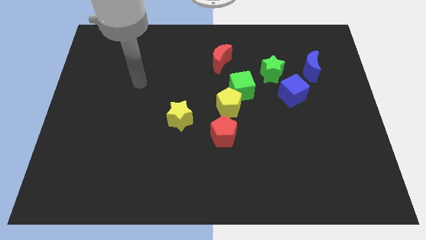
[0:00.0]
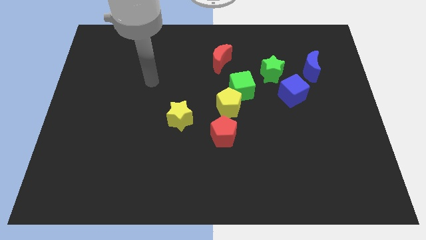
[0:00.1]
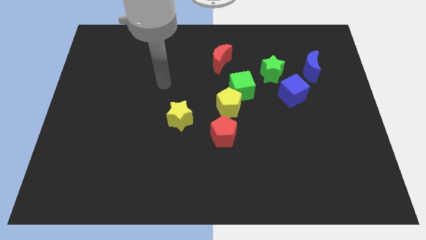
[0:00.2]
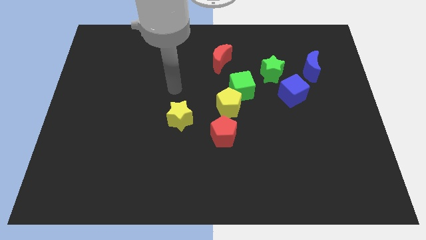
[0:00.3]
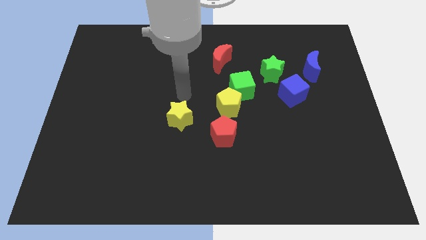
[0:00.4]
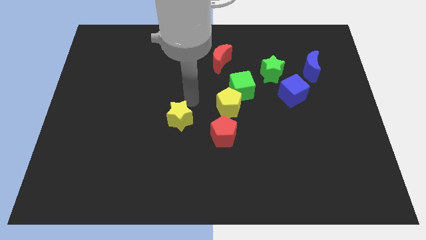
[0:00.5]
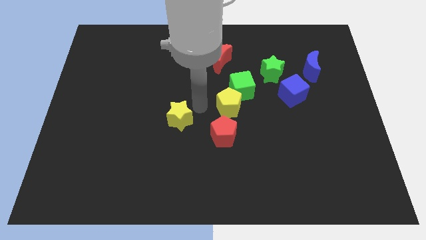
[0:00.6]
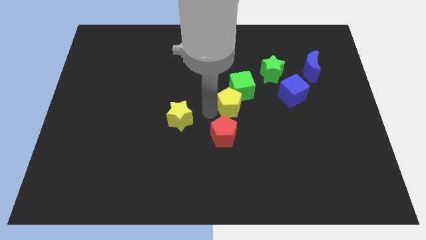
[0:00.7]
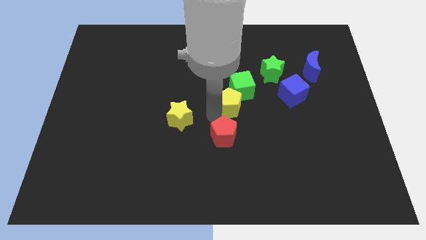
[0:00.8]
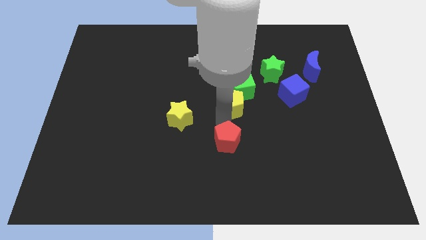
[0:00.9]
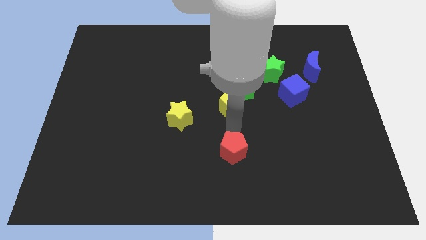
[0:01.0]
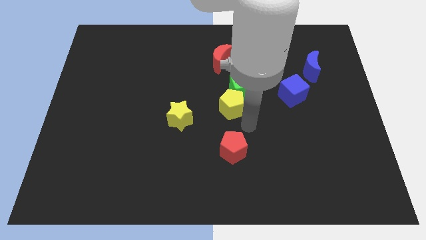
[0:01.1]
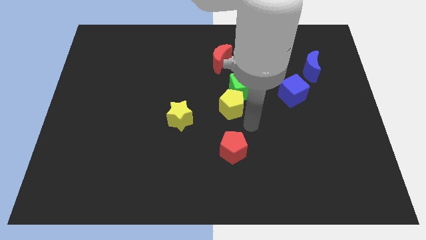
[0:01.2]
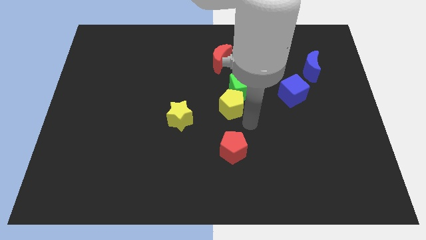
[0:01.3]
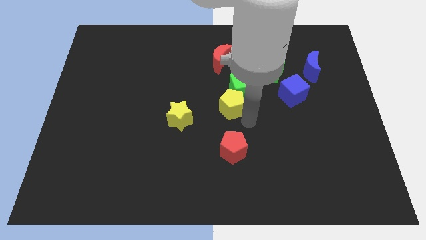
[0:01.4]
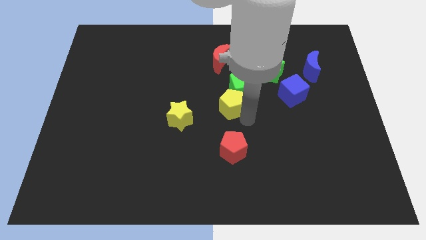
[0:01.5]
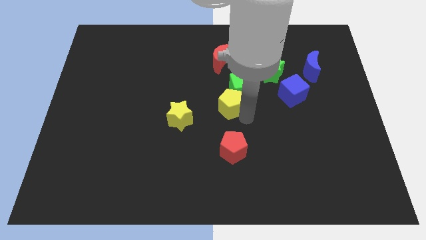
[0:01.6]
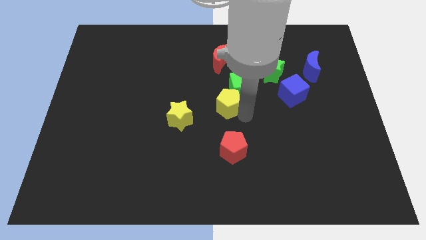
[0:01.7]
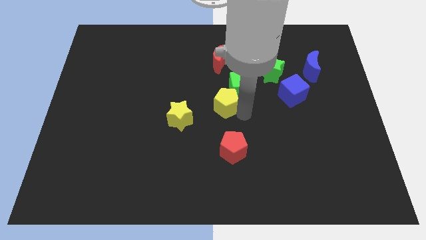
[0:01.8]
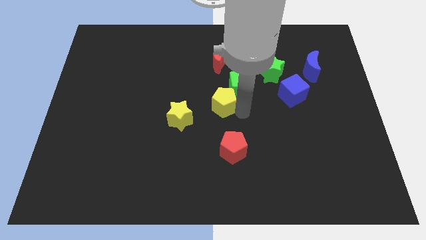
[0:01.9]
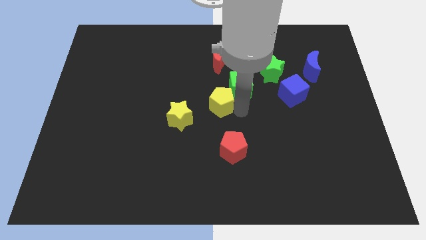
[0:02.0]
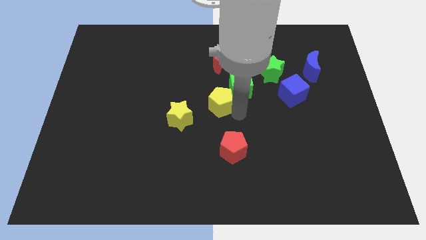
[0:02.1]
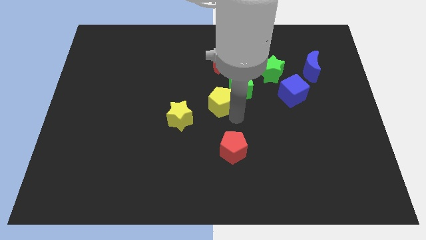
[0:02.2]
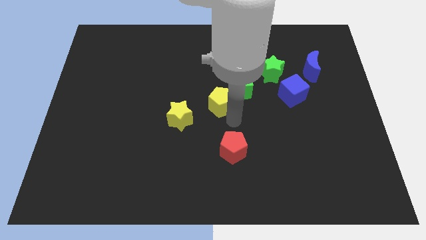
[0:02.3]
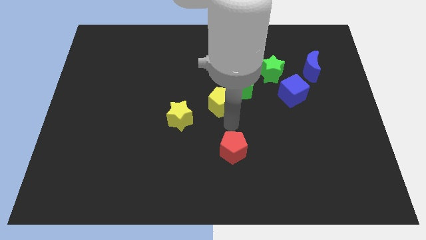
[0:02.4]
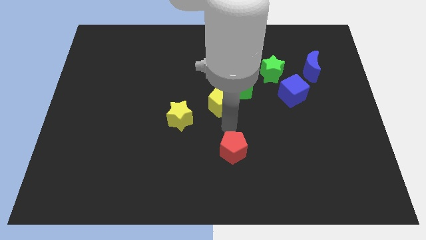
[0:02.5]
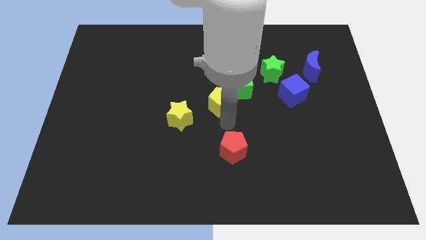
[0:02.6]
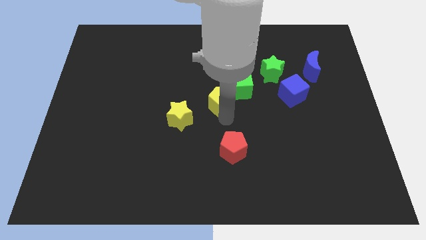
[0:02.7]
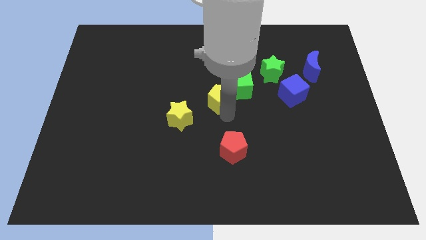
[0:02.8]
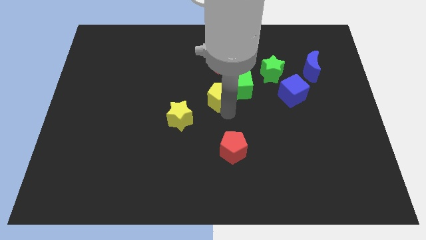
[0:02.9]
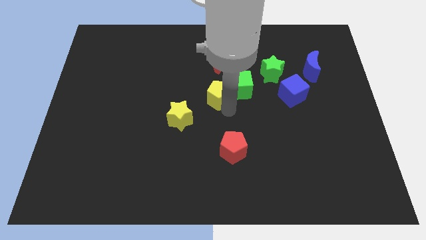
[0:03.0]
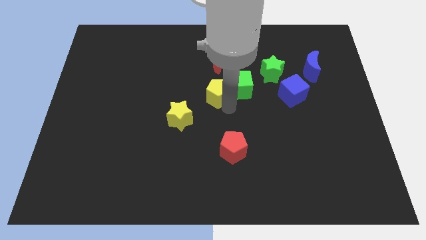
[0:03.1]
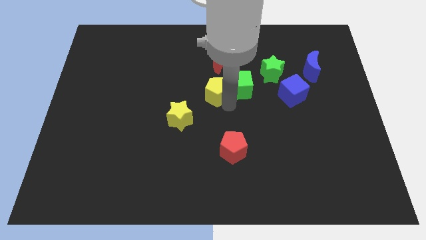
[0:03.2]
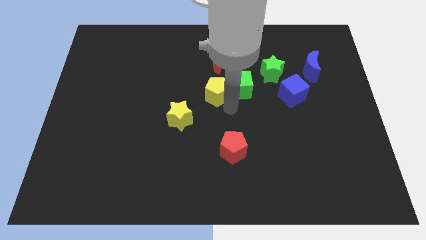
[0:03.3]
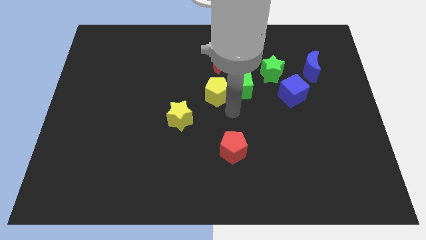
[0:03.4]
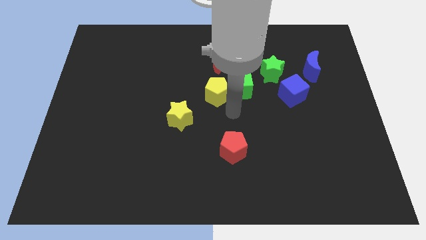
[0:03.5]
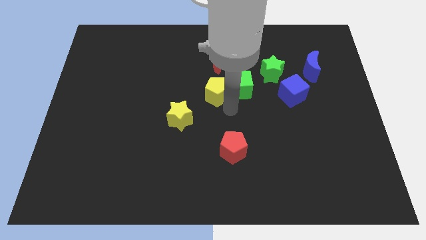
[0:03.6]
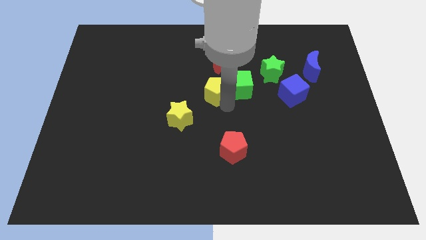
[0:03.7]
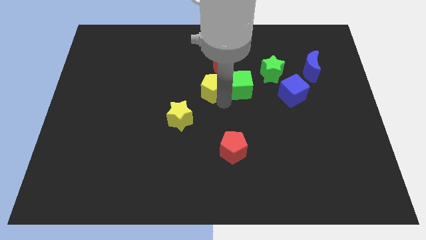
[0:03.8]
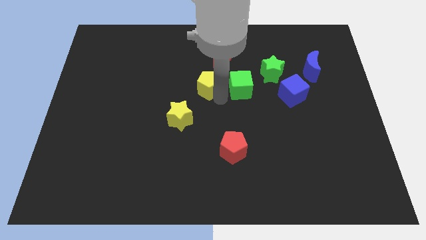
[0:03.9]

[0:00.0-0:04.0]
move the yellow pentagon away from the green cube and red pentagon

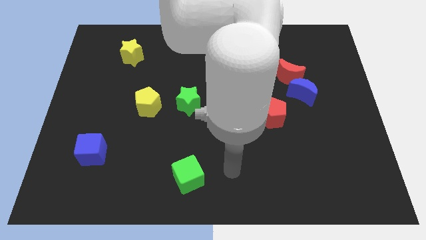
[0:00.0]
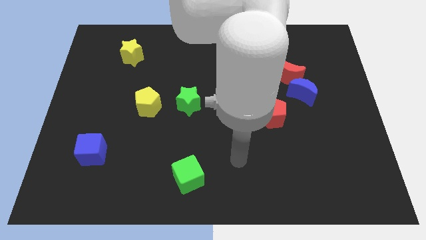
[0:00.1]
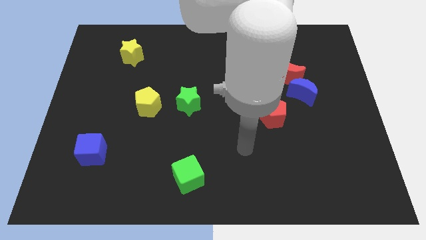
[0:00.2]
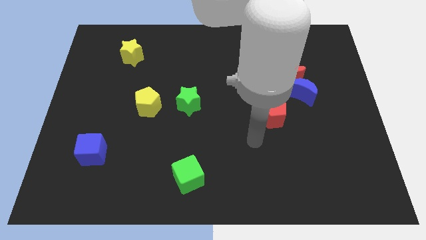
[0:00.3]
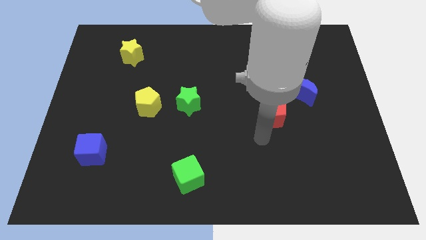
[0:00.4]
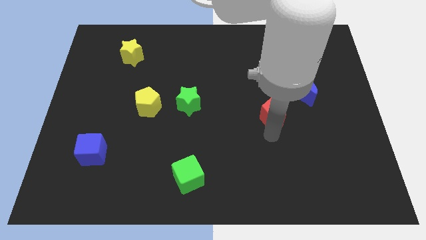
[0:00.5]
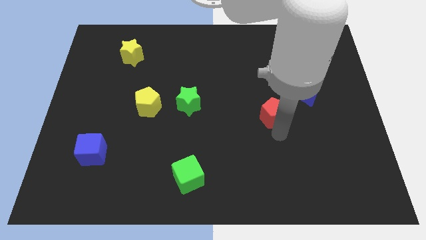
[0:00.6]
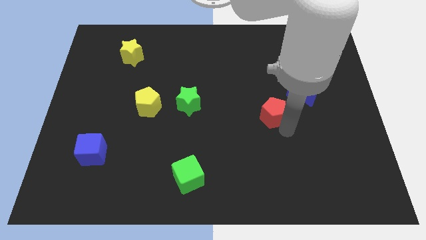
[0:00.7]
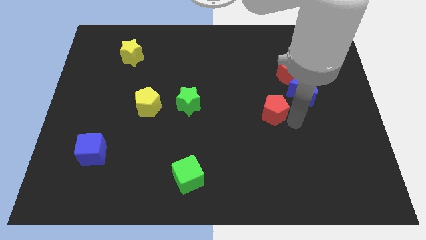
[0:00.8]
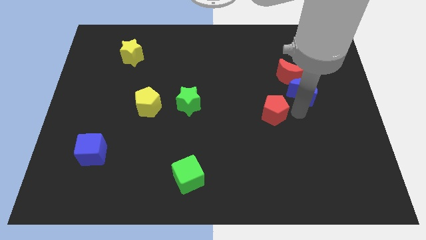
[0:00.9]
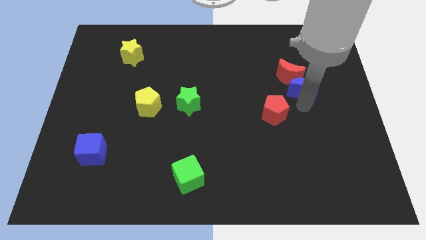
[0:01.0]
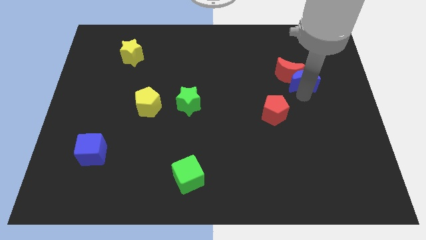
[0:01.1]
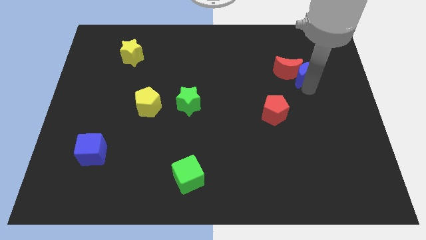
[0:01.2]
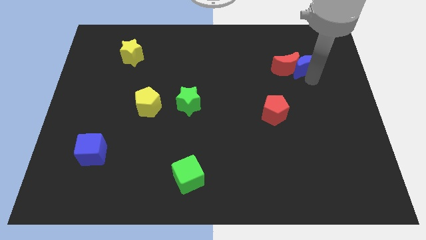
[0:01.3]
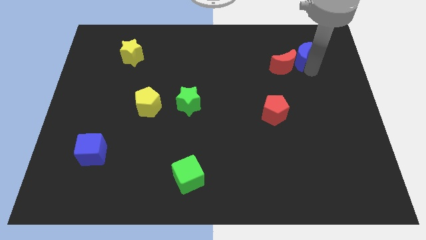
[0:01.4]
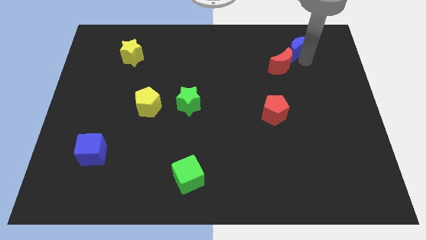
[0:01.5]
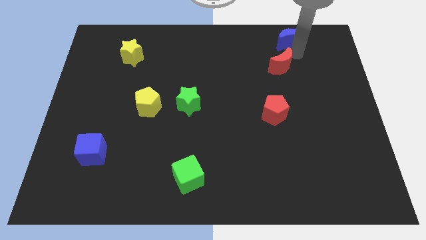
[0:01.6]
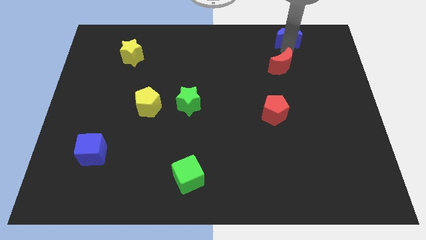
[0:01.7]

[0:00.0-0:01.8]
pull the red moon apart from the blue moon

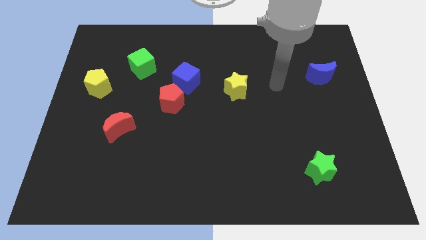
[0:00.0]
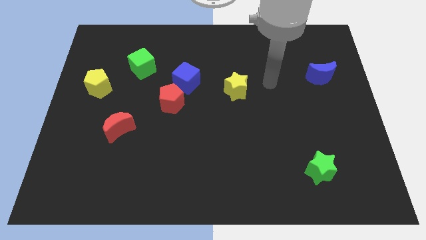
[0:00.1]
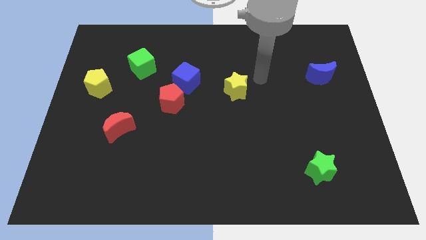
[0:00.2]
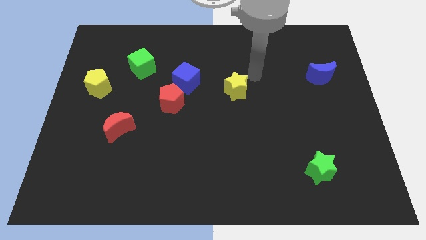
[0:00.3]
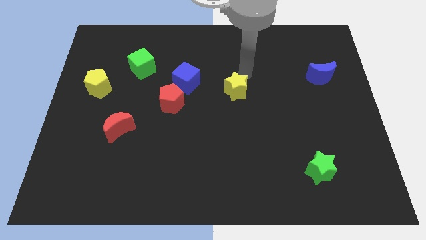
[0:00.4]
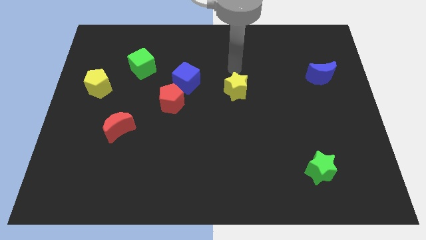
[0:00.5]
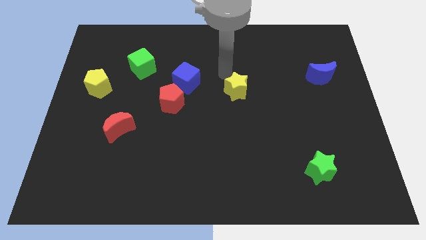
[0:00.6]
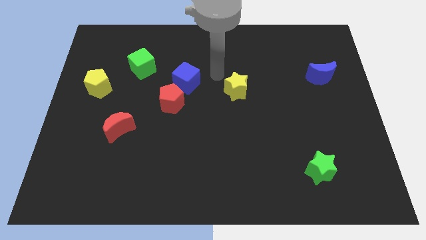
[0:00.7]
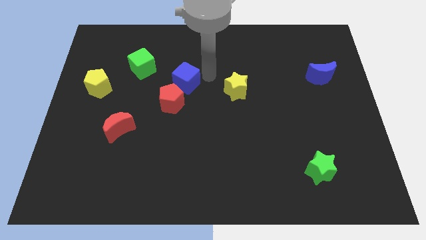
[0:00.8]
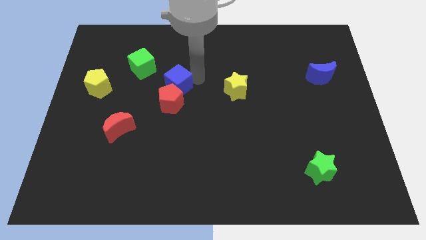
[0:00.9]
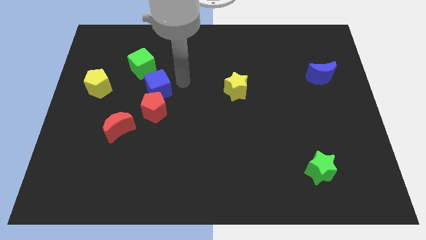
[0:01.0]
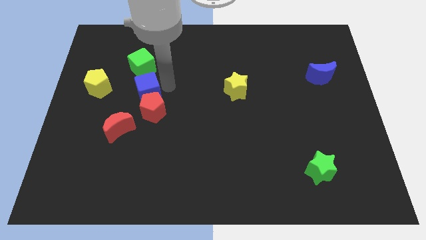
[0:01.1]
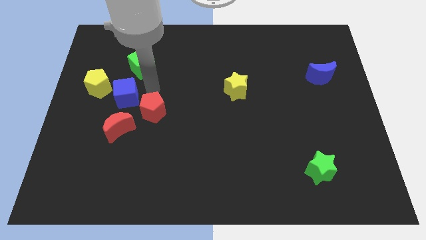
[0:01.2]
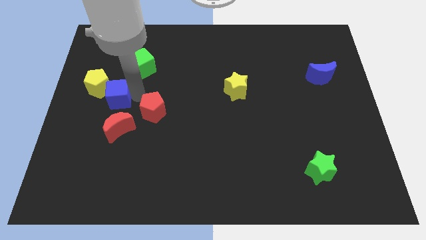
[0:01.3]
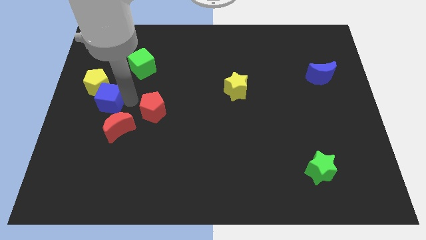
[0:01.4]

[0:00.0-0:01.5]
move the red pentagon away from the blue cube

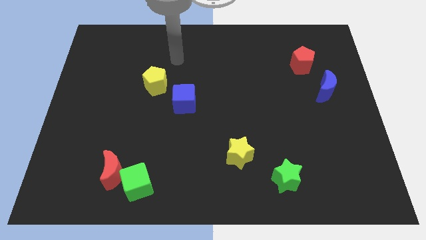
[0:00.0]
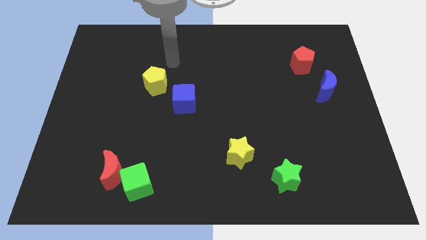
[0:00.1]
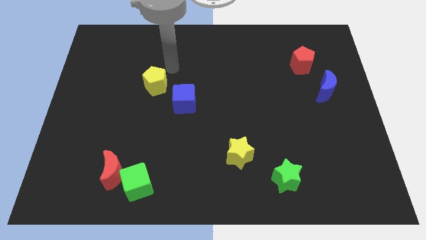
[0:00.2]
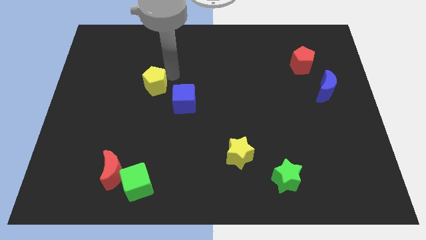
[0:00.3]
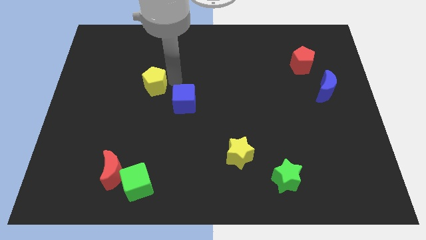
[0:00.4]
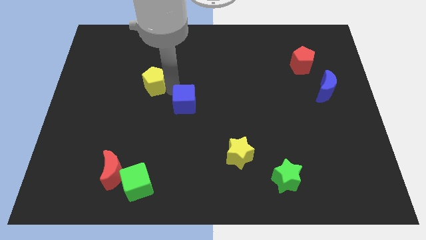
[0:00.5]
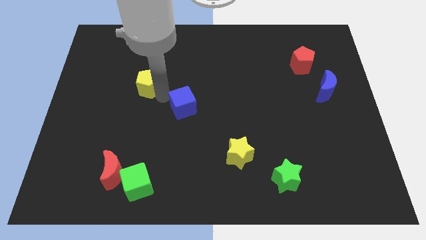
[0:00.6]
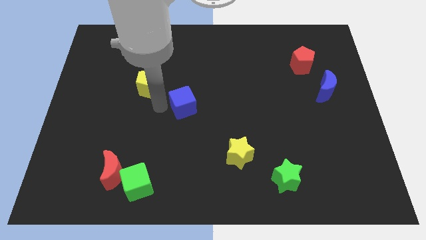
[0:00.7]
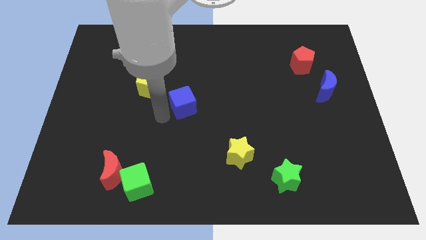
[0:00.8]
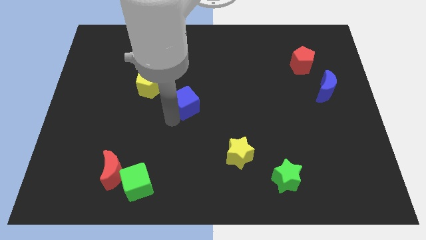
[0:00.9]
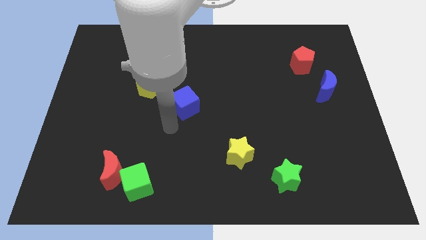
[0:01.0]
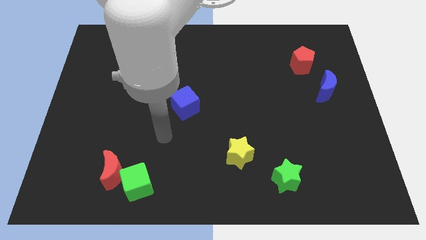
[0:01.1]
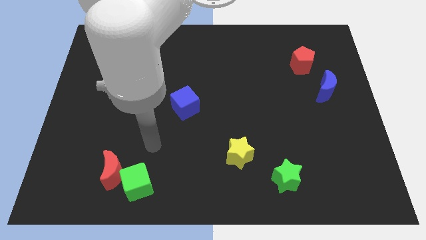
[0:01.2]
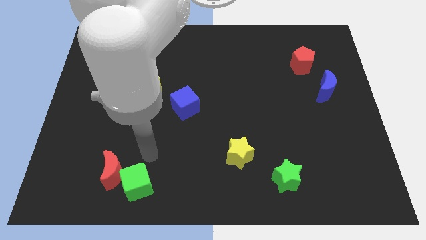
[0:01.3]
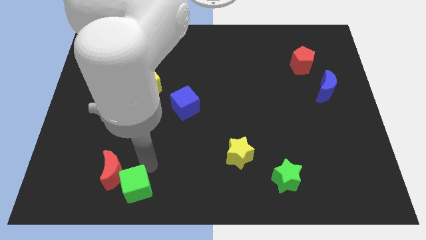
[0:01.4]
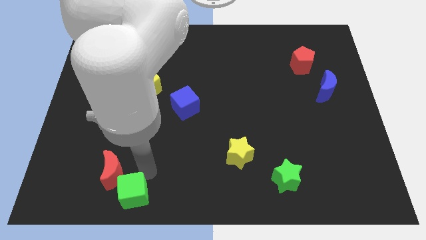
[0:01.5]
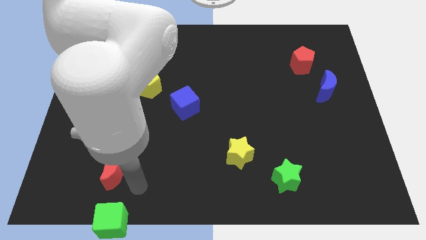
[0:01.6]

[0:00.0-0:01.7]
pull the red moon apart from the green cube

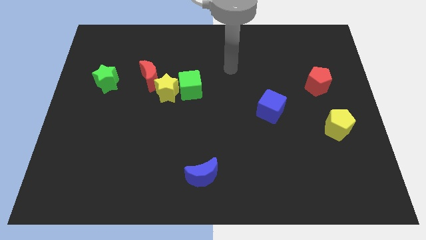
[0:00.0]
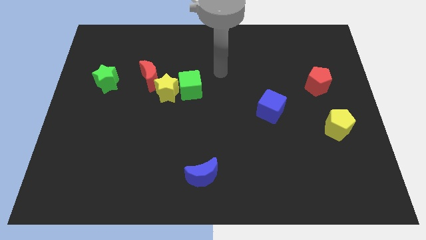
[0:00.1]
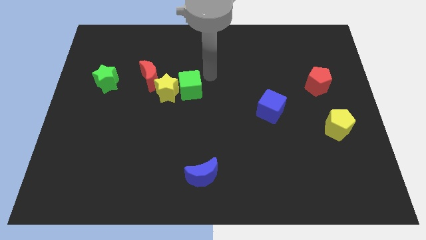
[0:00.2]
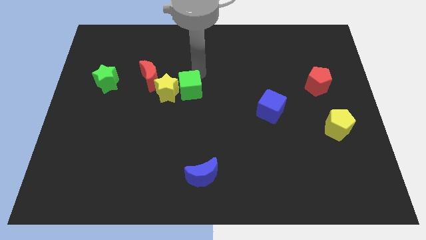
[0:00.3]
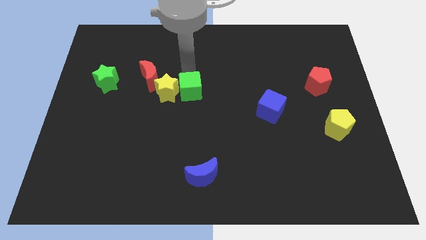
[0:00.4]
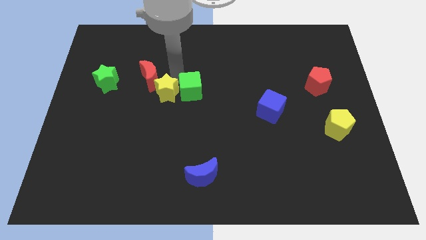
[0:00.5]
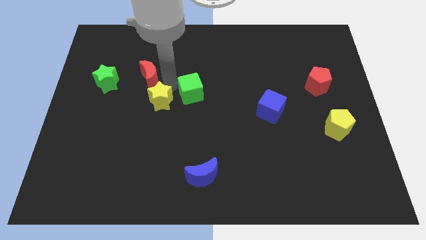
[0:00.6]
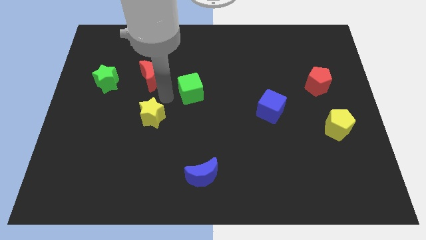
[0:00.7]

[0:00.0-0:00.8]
pull the green cube apart from the yellow star
